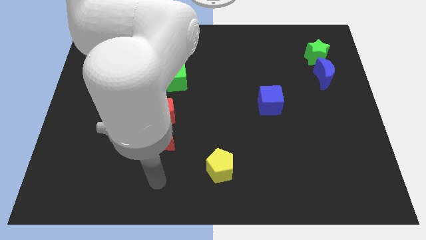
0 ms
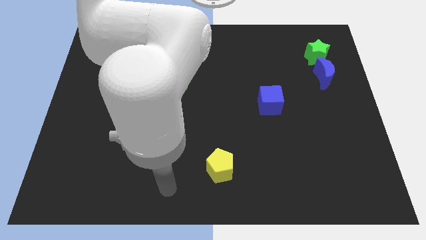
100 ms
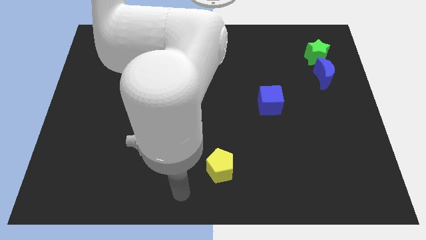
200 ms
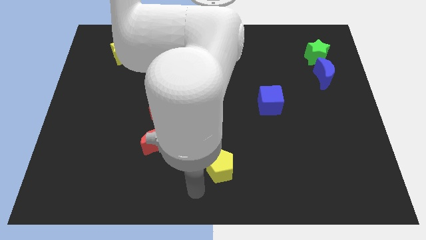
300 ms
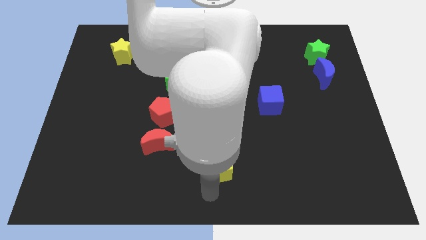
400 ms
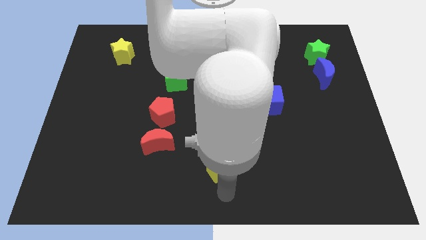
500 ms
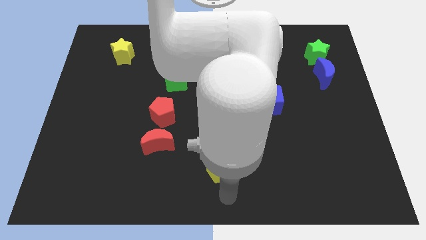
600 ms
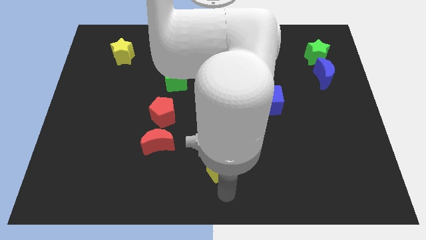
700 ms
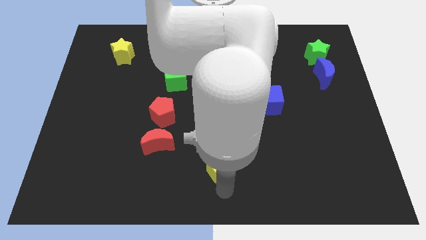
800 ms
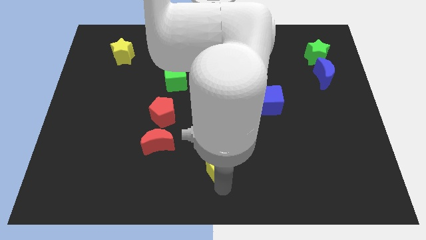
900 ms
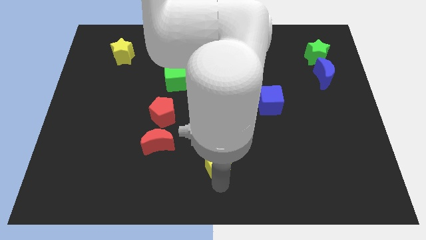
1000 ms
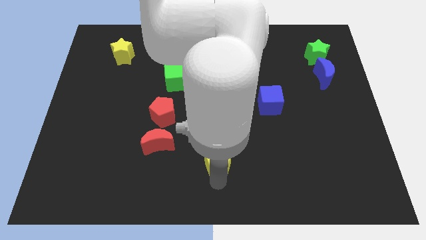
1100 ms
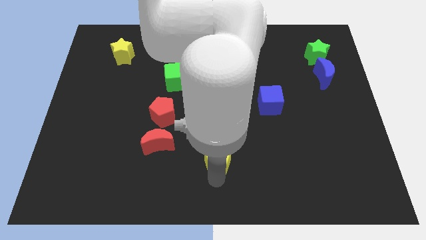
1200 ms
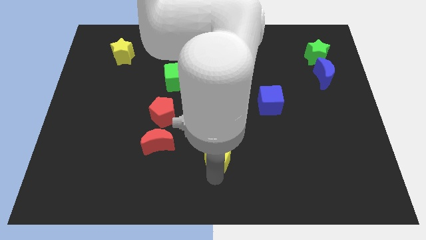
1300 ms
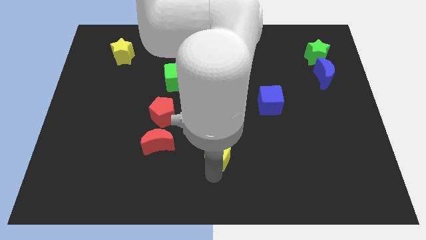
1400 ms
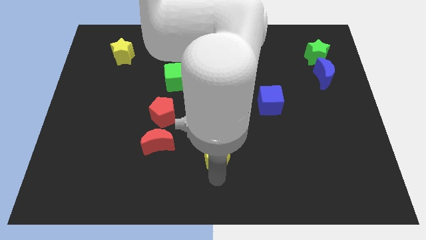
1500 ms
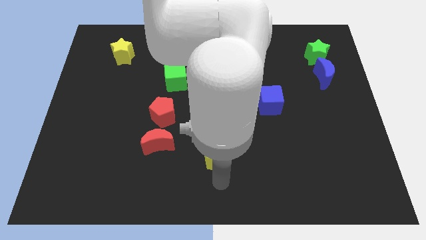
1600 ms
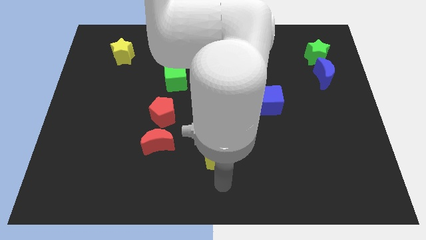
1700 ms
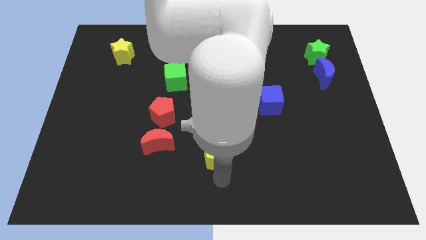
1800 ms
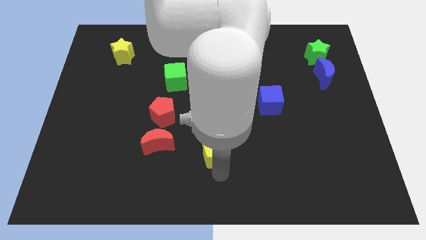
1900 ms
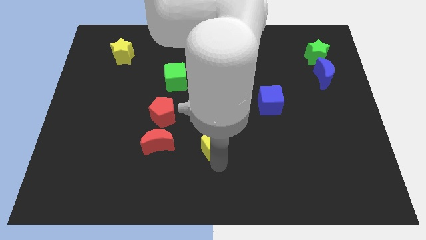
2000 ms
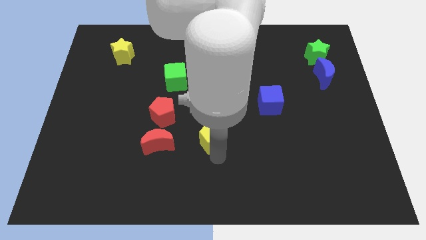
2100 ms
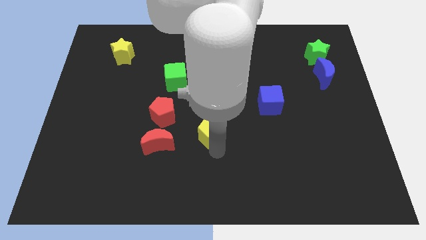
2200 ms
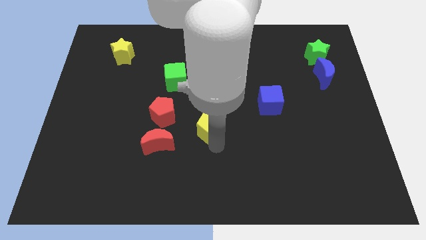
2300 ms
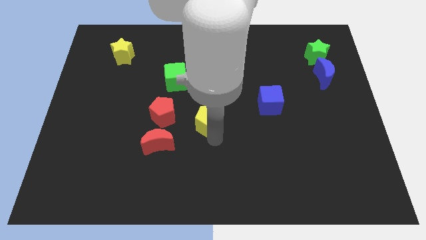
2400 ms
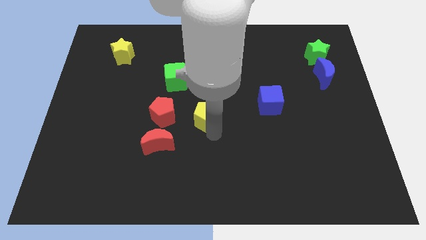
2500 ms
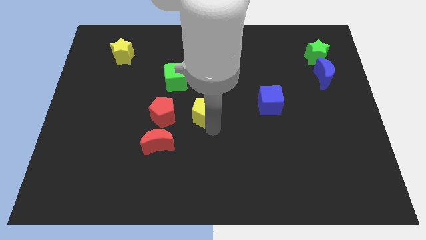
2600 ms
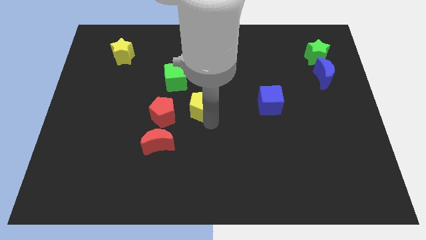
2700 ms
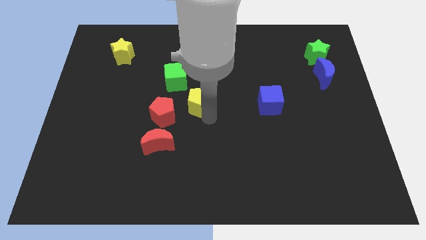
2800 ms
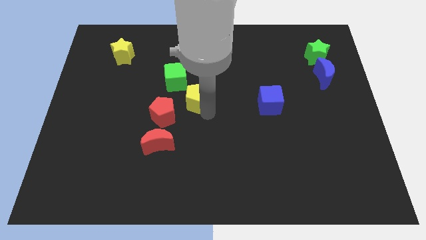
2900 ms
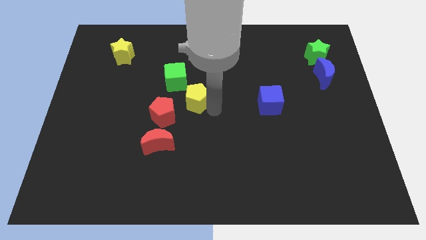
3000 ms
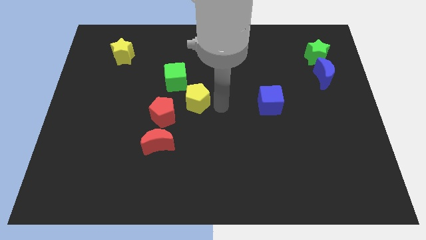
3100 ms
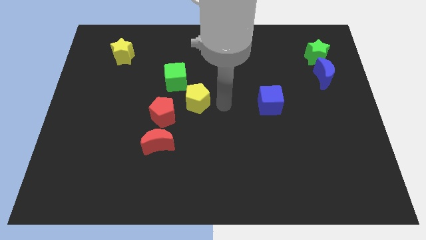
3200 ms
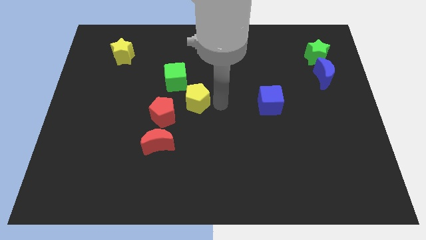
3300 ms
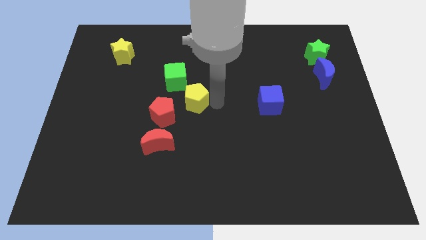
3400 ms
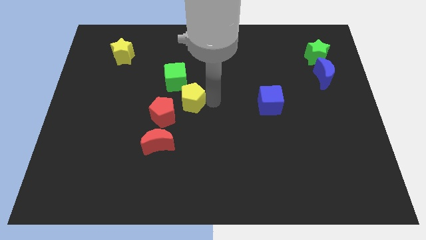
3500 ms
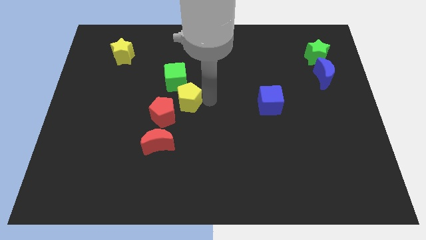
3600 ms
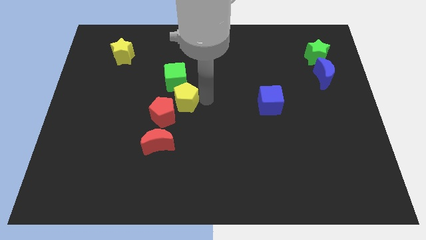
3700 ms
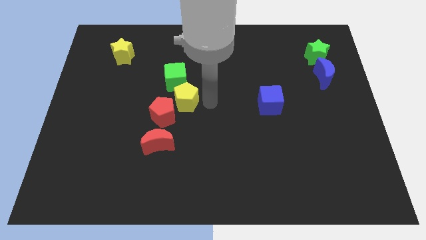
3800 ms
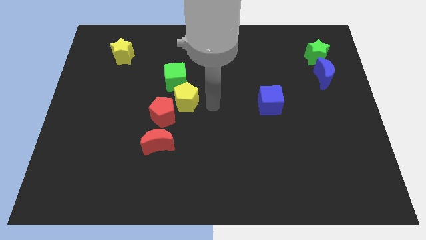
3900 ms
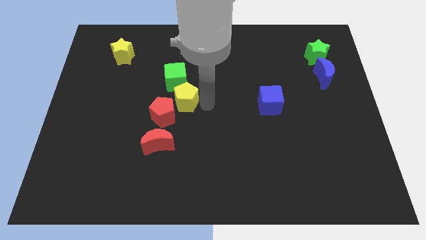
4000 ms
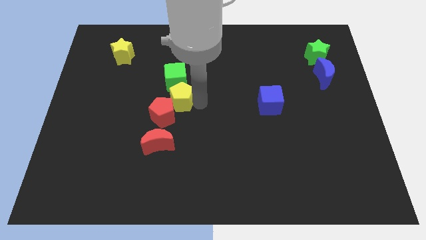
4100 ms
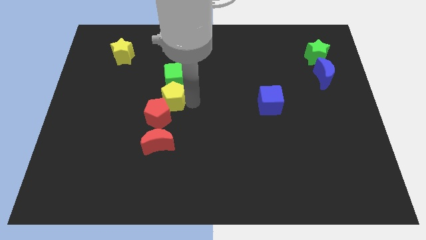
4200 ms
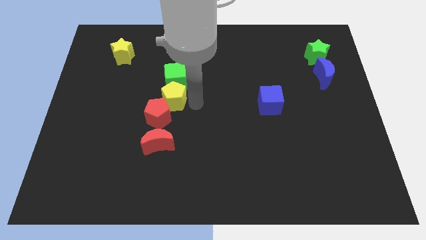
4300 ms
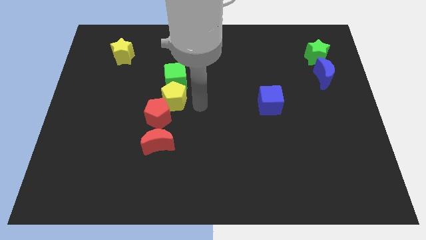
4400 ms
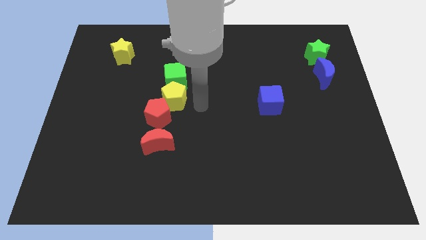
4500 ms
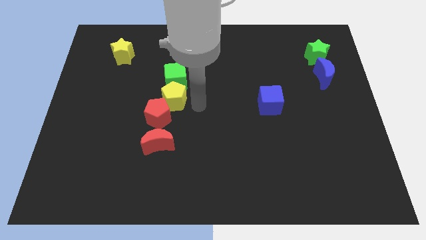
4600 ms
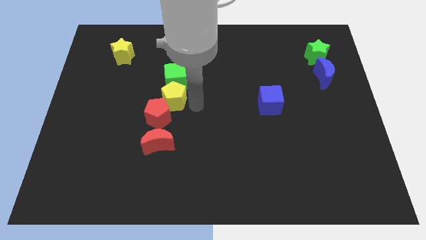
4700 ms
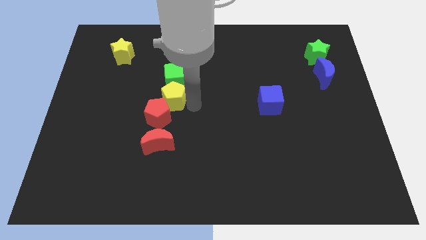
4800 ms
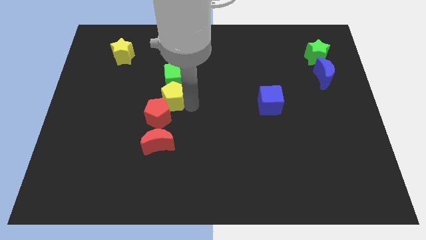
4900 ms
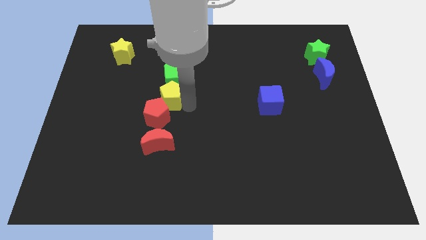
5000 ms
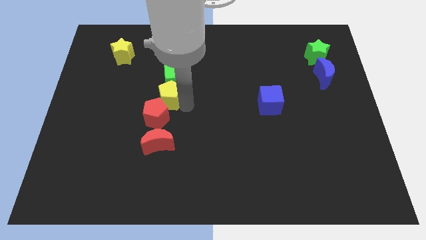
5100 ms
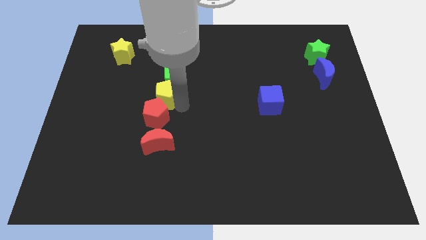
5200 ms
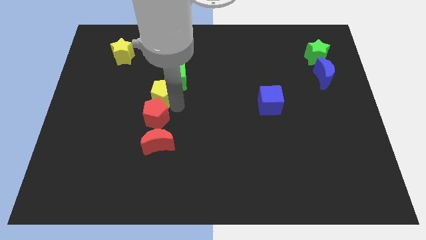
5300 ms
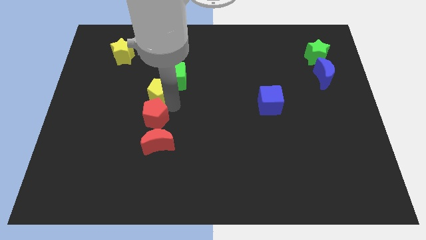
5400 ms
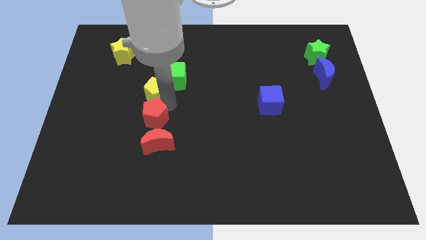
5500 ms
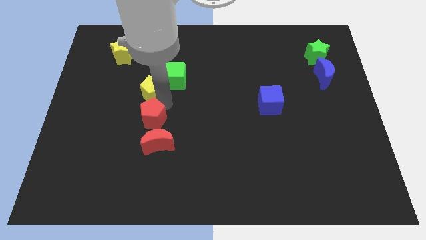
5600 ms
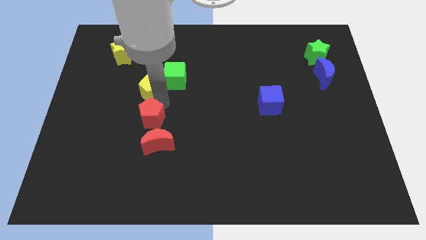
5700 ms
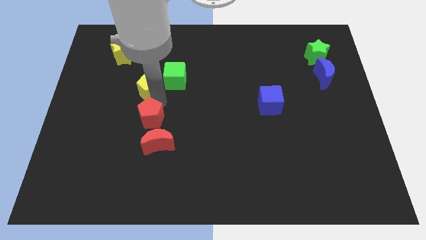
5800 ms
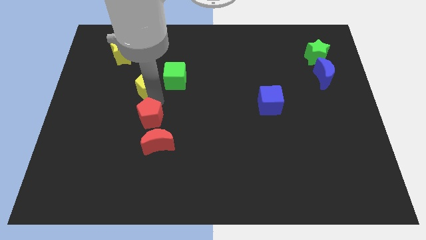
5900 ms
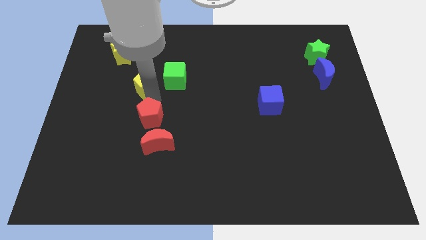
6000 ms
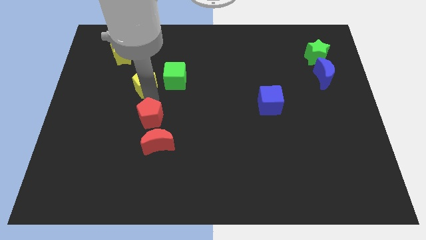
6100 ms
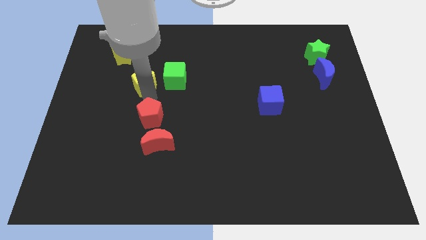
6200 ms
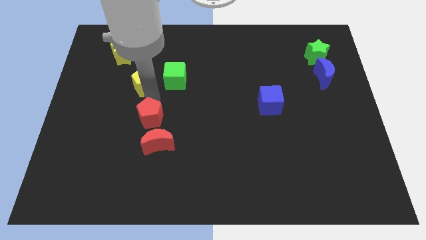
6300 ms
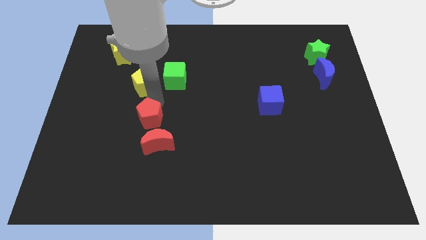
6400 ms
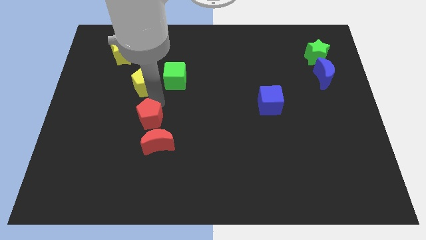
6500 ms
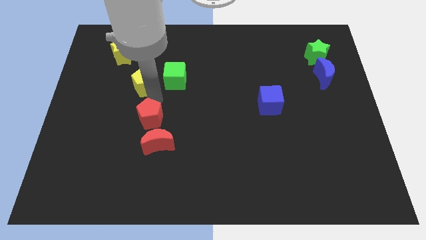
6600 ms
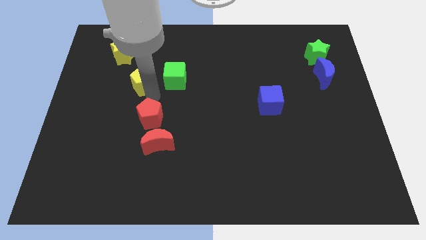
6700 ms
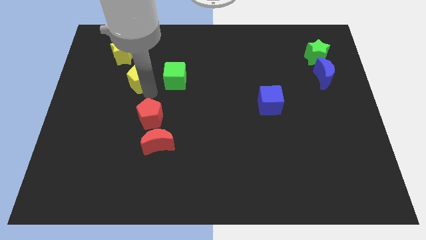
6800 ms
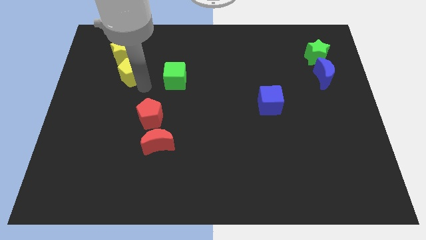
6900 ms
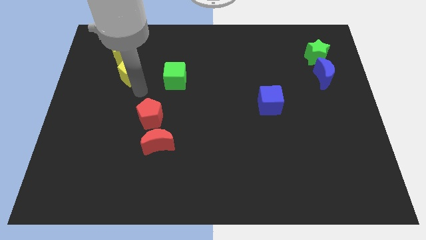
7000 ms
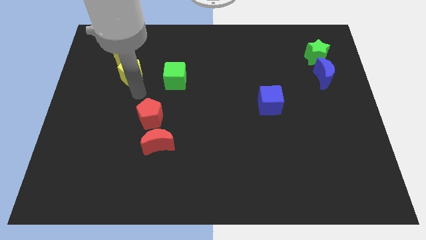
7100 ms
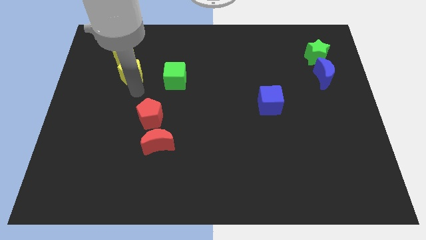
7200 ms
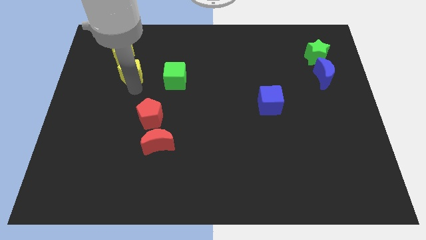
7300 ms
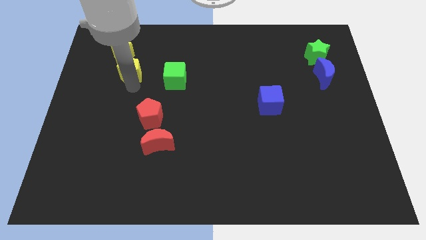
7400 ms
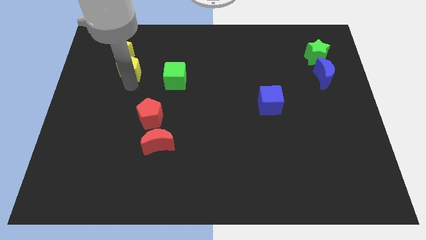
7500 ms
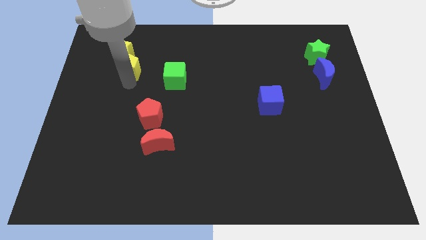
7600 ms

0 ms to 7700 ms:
put the yellow pentagon towards the yellow star
